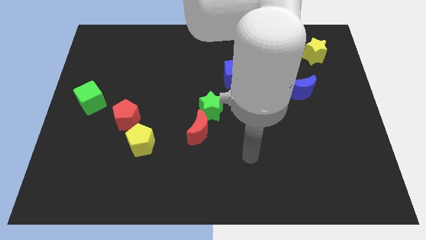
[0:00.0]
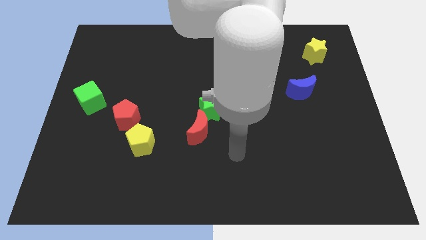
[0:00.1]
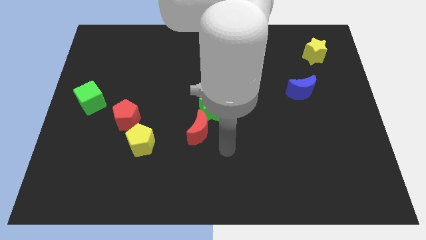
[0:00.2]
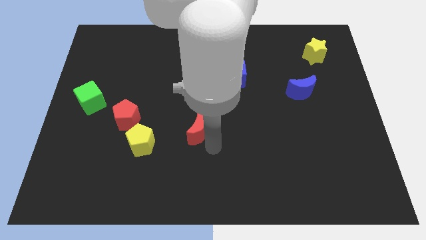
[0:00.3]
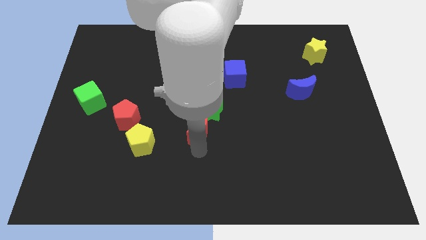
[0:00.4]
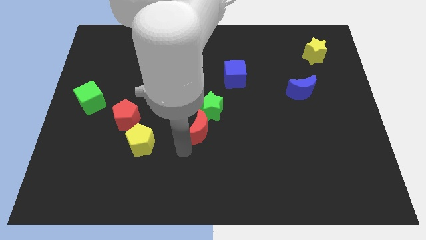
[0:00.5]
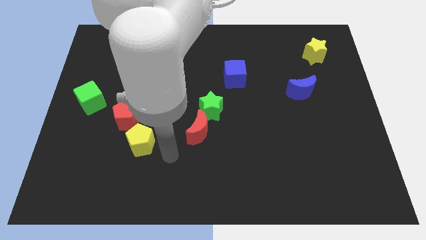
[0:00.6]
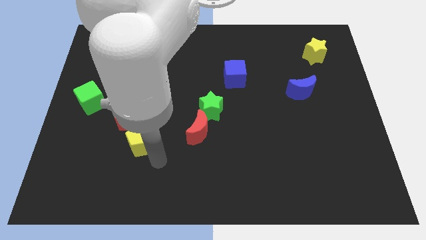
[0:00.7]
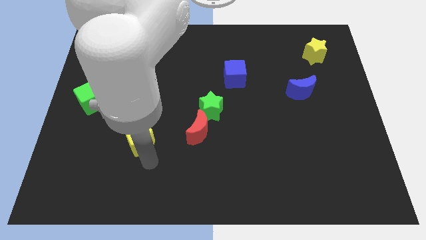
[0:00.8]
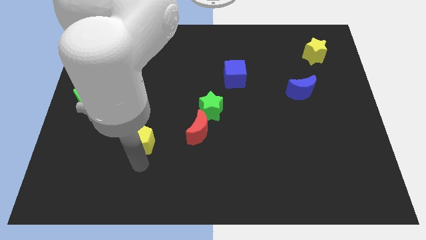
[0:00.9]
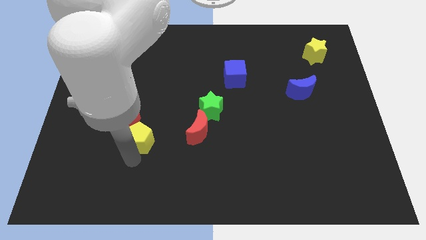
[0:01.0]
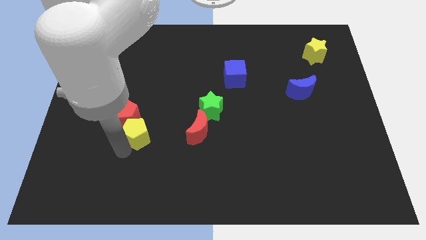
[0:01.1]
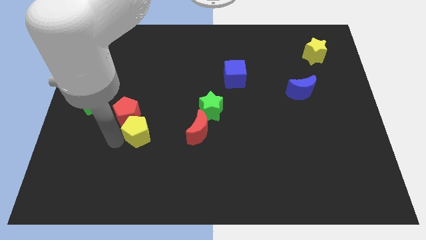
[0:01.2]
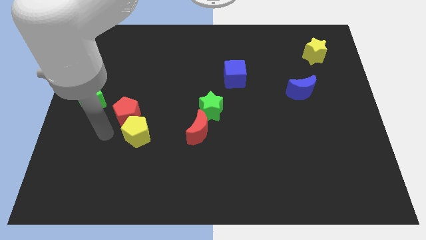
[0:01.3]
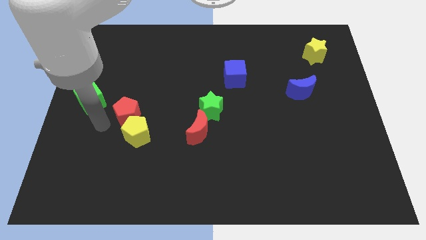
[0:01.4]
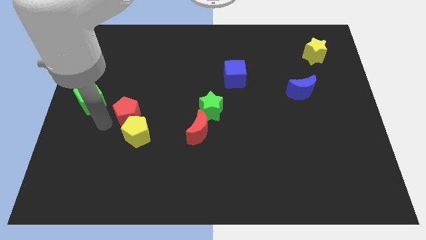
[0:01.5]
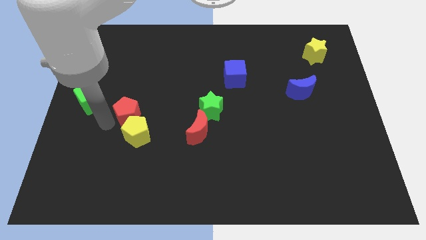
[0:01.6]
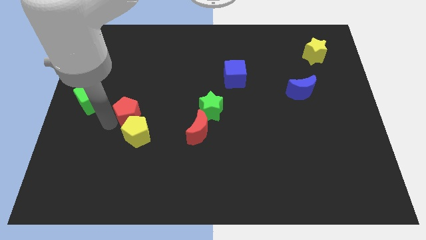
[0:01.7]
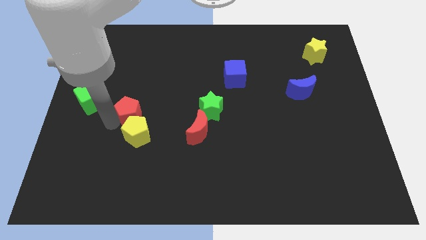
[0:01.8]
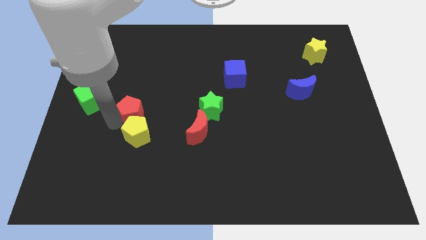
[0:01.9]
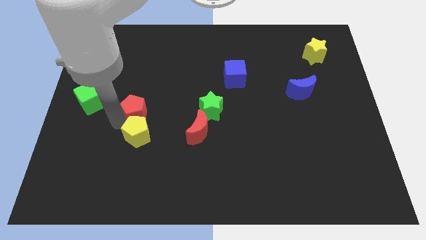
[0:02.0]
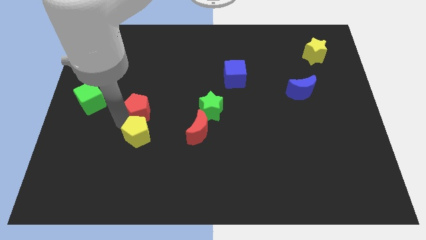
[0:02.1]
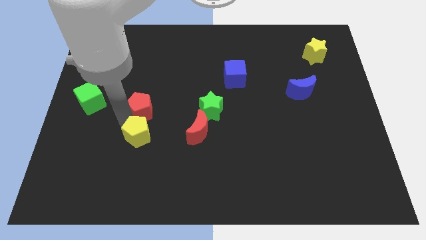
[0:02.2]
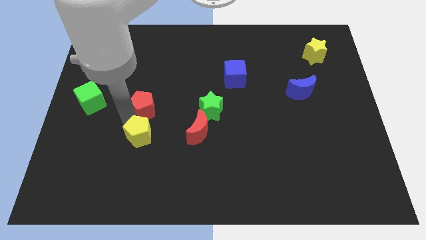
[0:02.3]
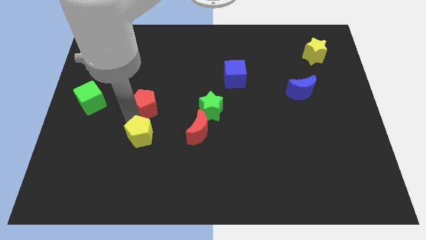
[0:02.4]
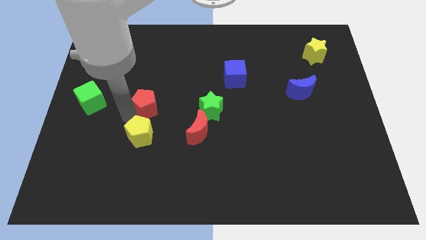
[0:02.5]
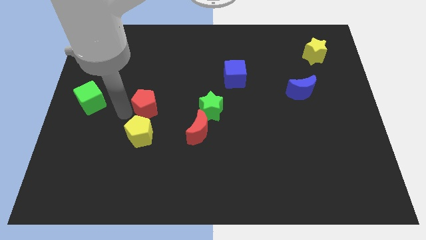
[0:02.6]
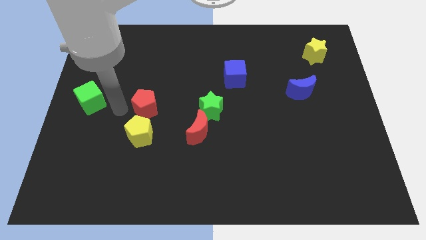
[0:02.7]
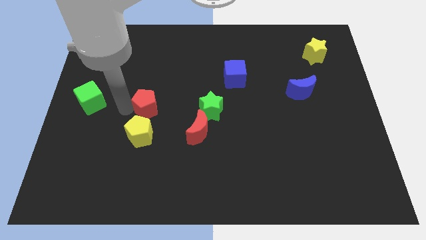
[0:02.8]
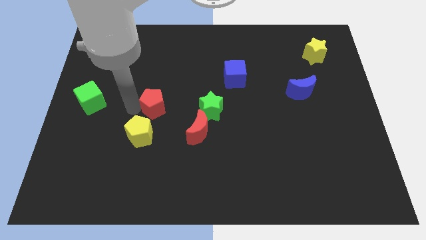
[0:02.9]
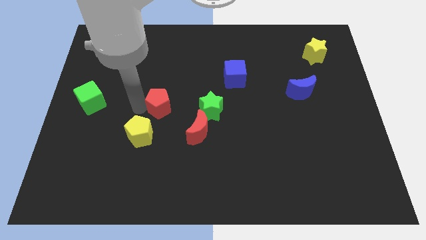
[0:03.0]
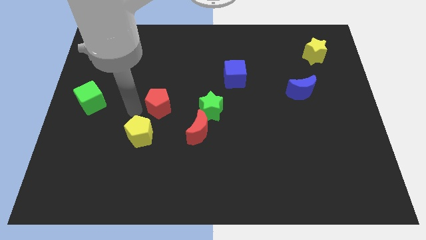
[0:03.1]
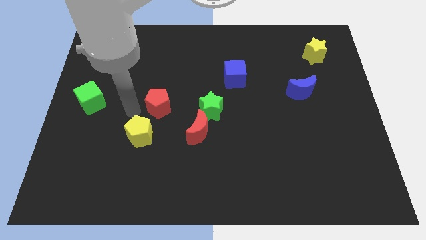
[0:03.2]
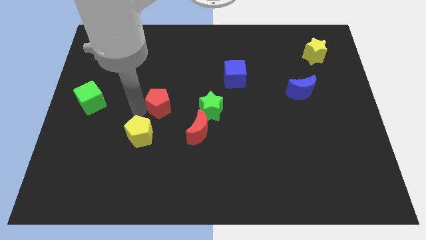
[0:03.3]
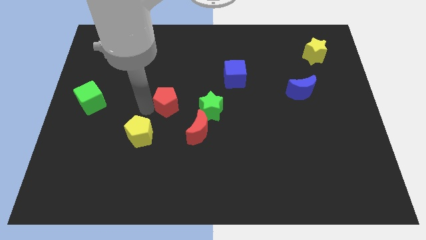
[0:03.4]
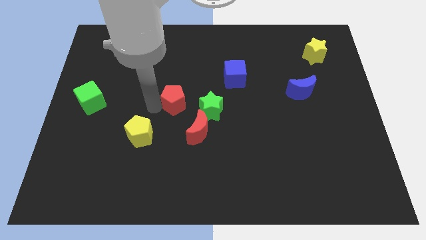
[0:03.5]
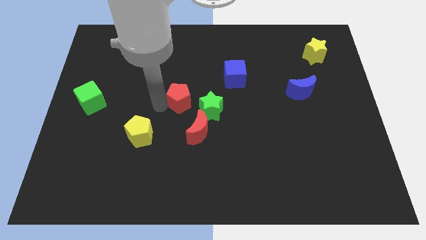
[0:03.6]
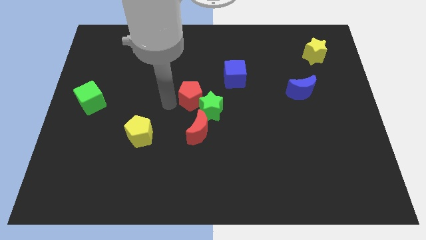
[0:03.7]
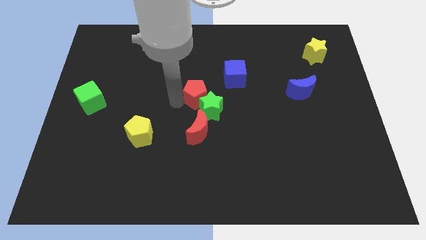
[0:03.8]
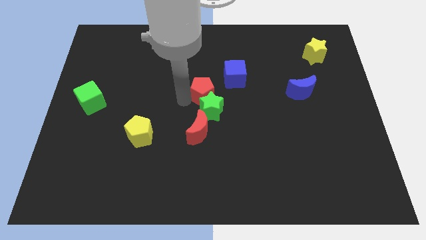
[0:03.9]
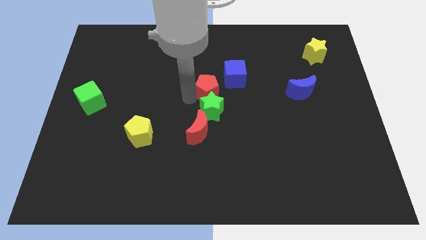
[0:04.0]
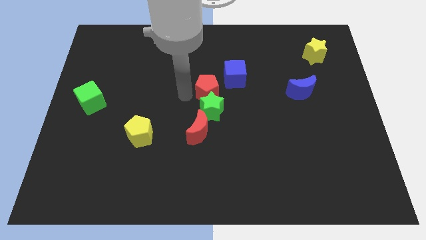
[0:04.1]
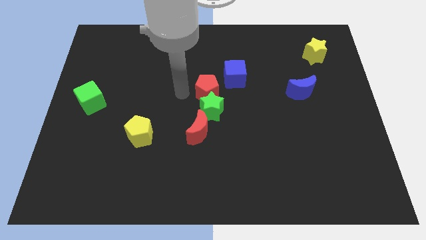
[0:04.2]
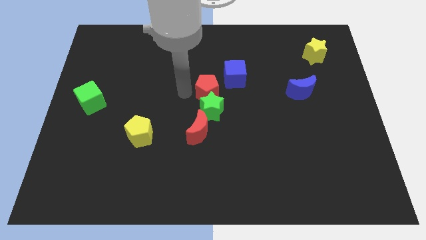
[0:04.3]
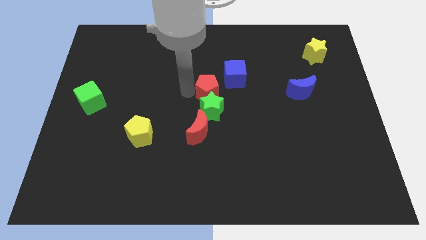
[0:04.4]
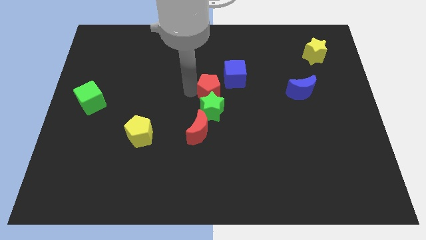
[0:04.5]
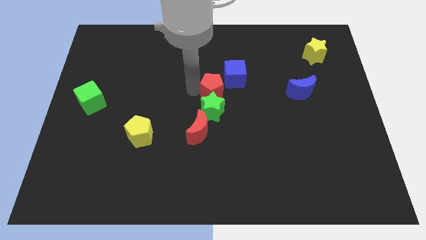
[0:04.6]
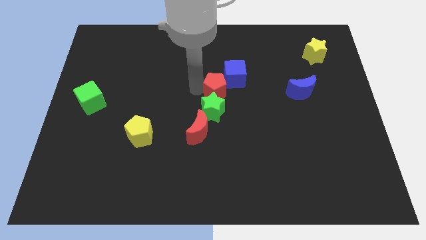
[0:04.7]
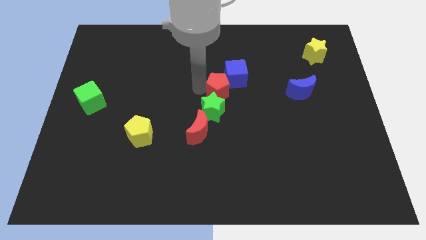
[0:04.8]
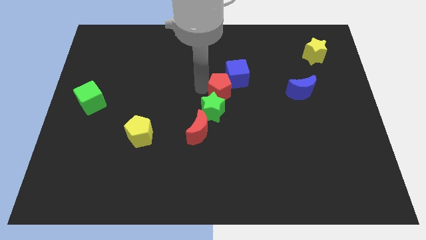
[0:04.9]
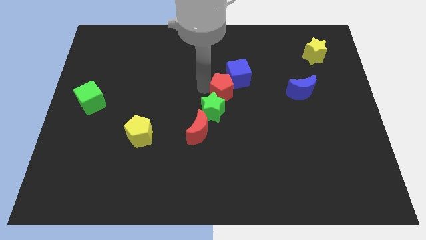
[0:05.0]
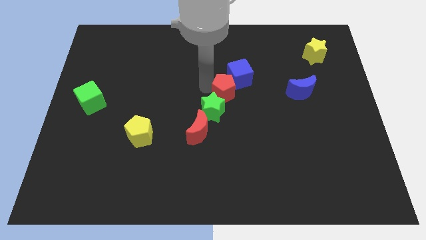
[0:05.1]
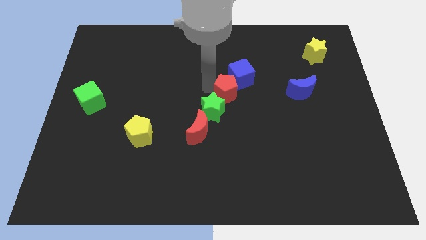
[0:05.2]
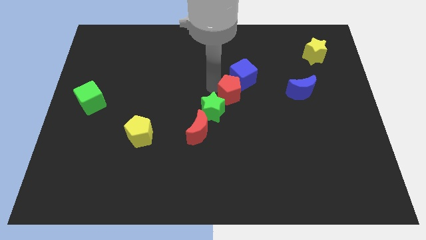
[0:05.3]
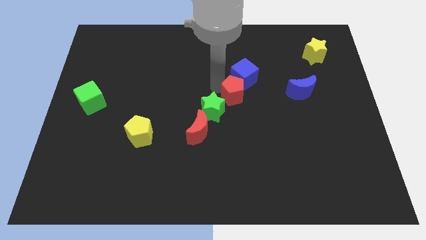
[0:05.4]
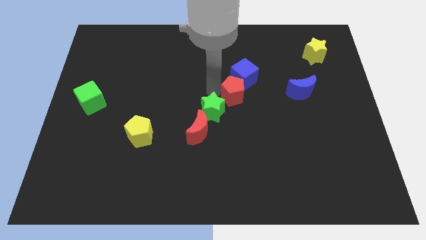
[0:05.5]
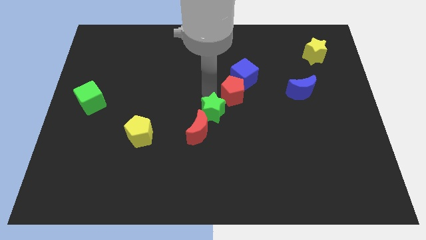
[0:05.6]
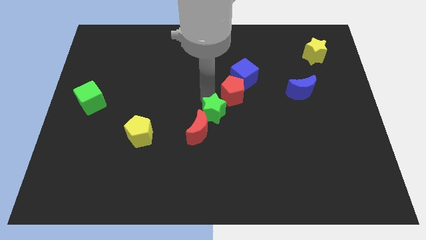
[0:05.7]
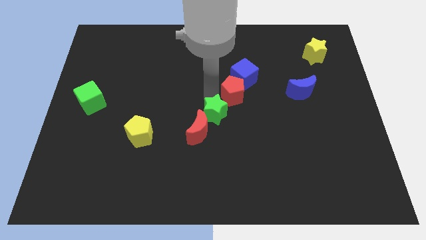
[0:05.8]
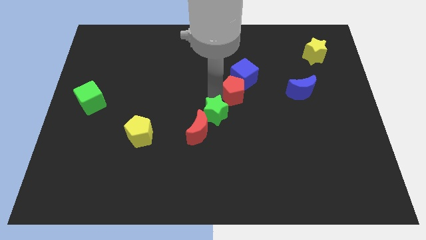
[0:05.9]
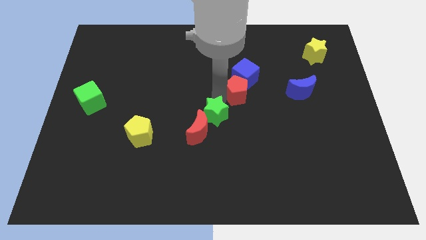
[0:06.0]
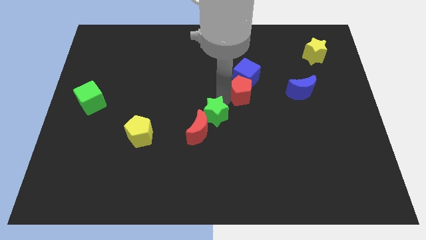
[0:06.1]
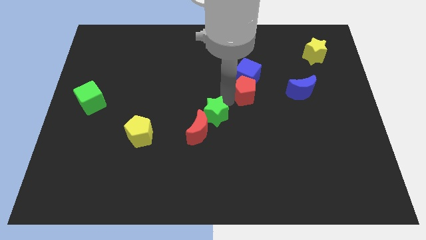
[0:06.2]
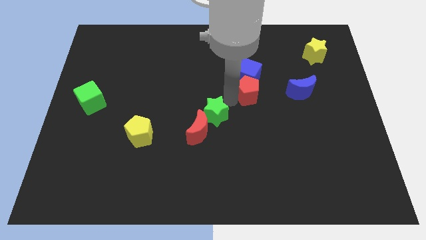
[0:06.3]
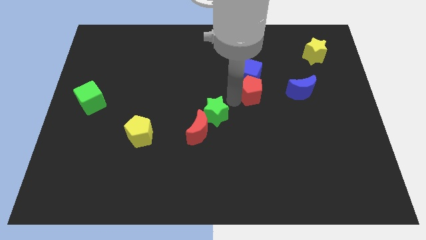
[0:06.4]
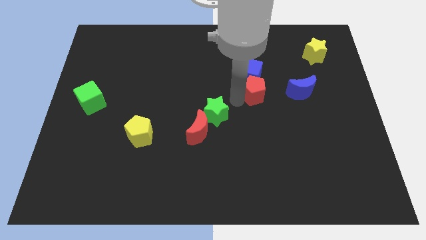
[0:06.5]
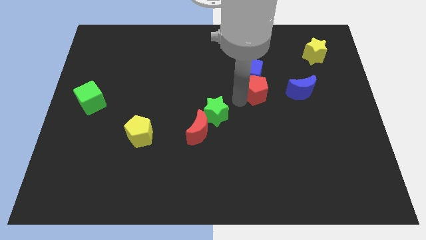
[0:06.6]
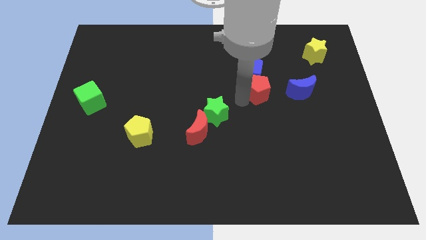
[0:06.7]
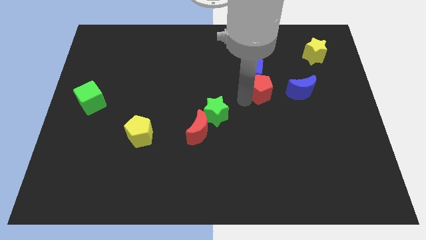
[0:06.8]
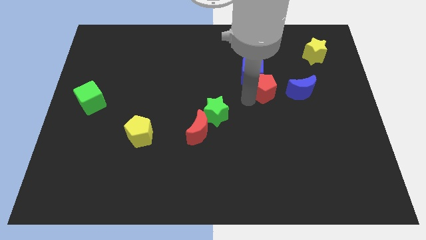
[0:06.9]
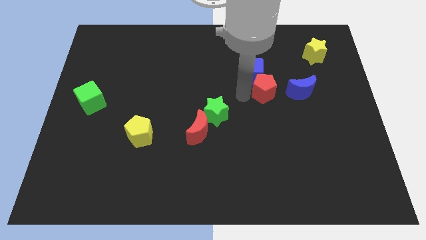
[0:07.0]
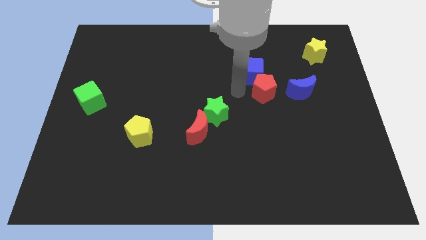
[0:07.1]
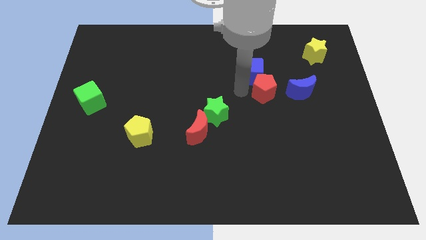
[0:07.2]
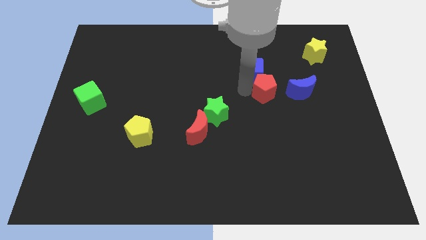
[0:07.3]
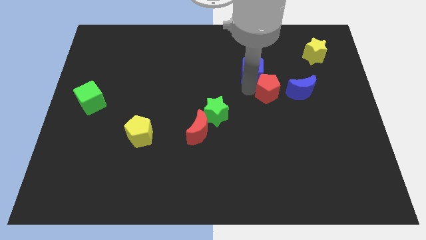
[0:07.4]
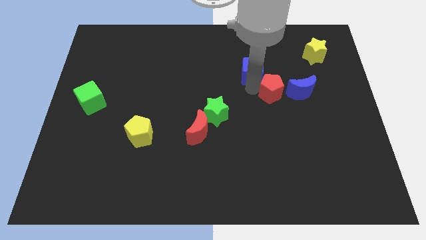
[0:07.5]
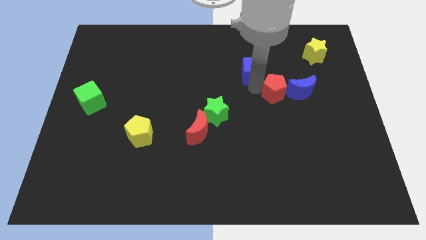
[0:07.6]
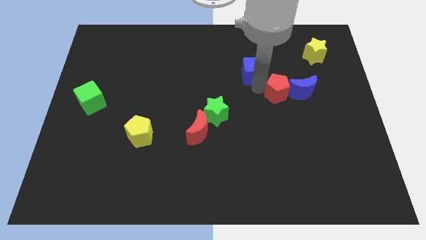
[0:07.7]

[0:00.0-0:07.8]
move the red pentagon close to the blue moon
